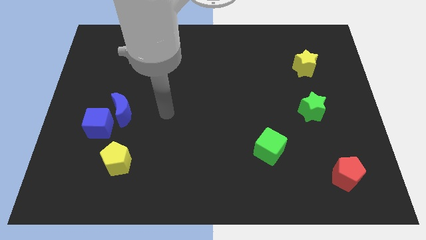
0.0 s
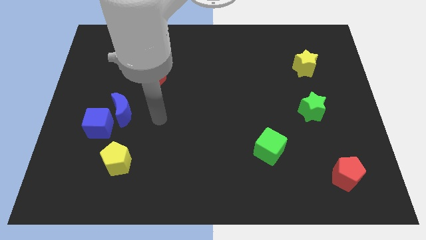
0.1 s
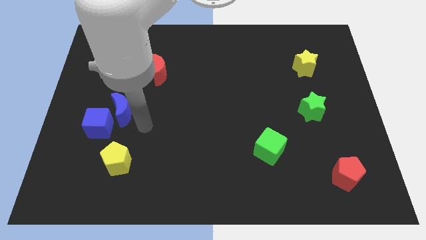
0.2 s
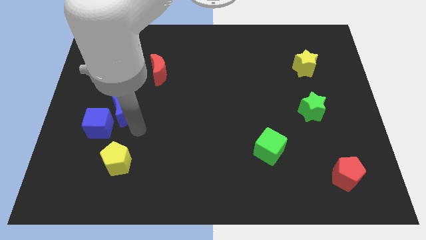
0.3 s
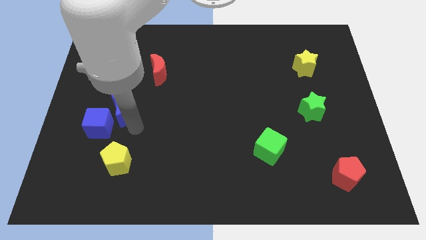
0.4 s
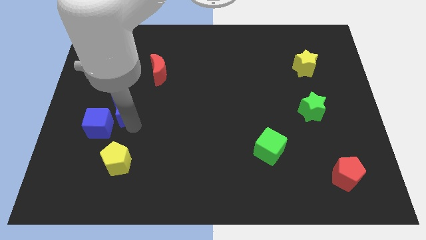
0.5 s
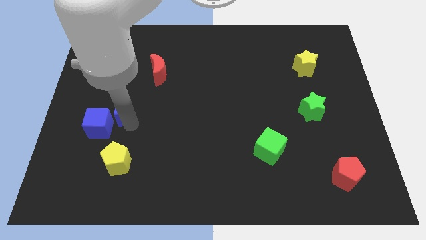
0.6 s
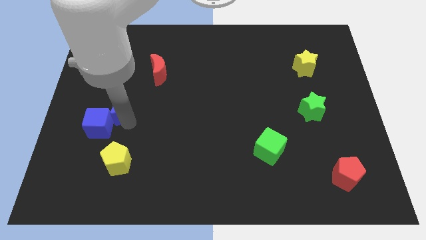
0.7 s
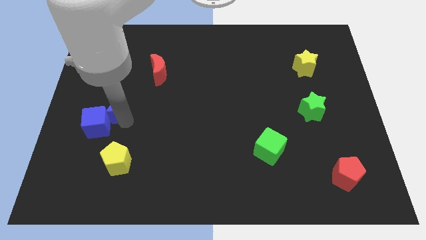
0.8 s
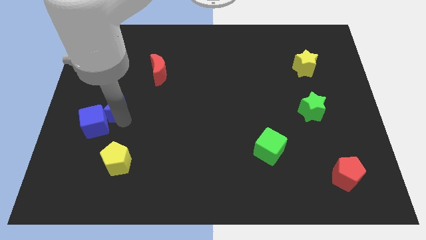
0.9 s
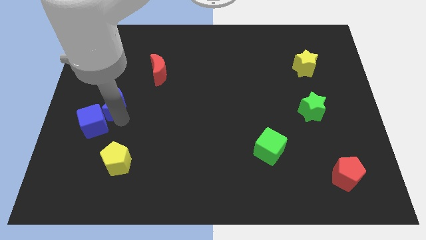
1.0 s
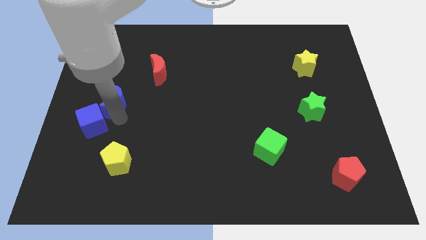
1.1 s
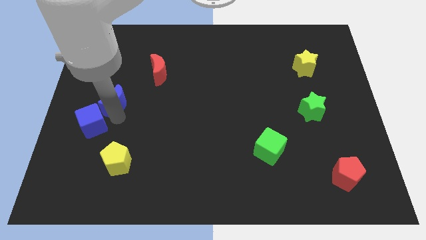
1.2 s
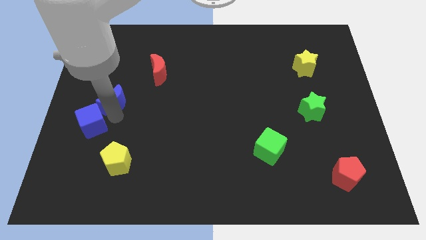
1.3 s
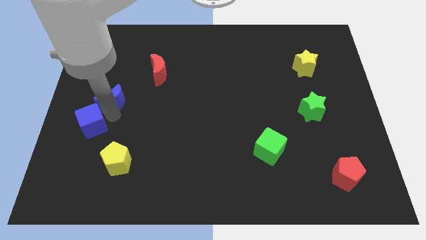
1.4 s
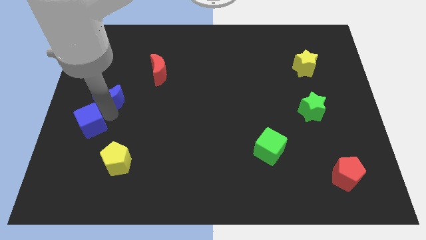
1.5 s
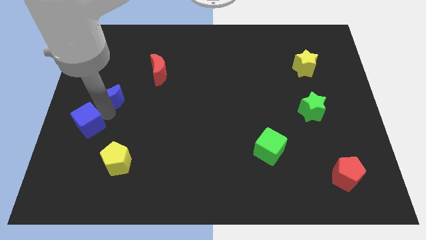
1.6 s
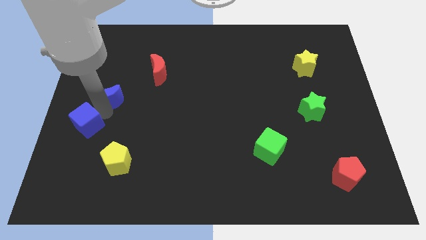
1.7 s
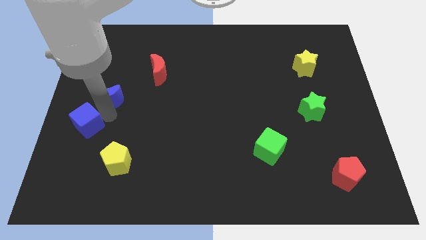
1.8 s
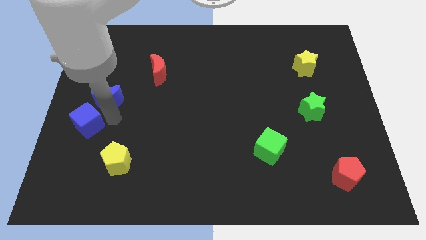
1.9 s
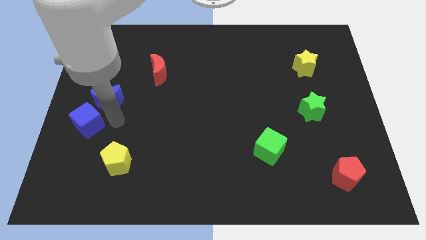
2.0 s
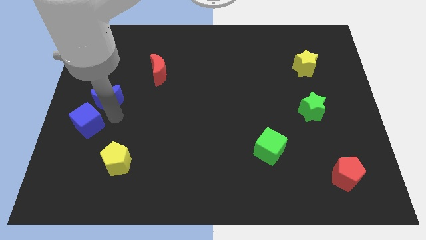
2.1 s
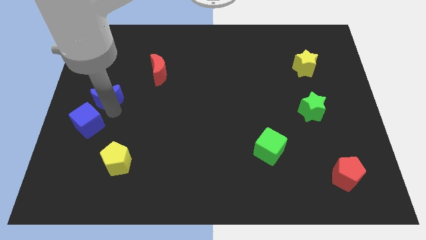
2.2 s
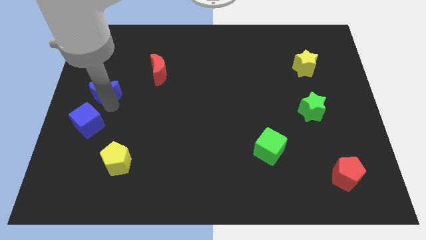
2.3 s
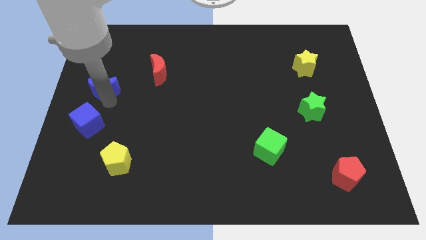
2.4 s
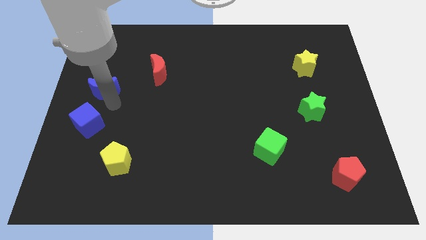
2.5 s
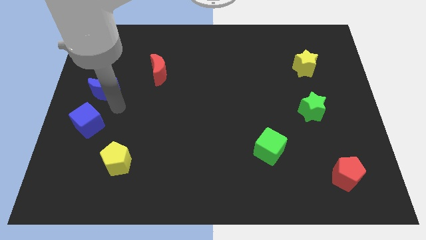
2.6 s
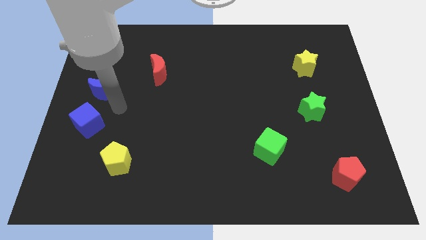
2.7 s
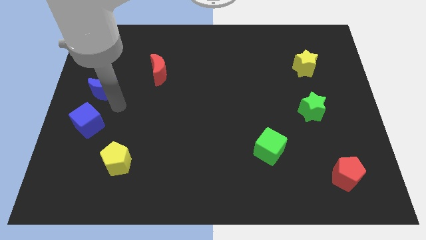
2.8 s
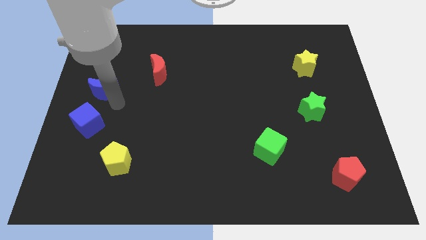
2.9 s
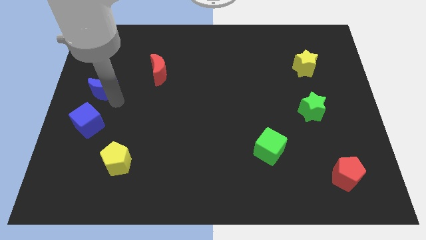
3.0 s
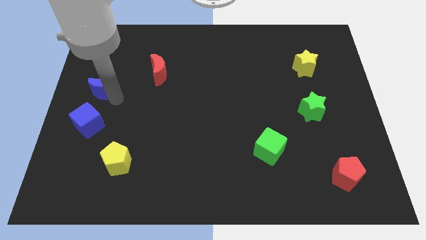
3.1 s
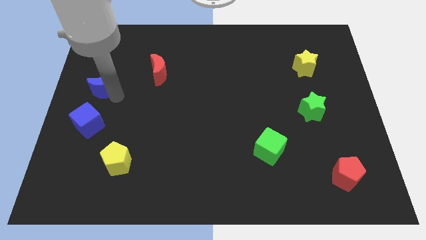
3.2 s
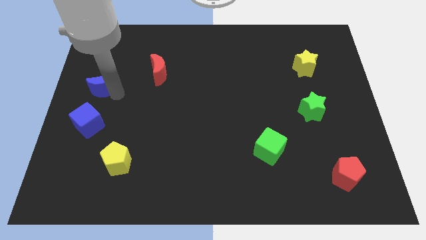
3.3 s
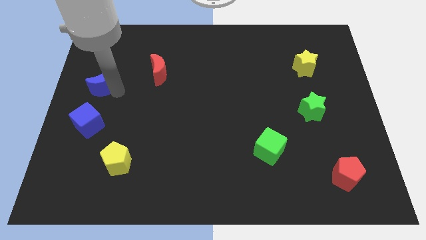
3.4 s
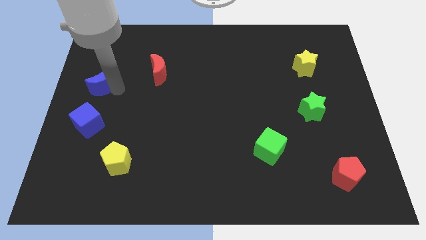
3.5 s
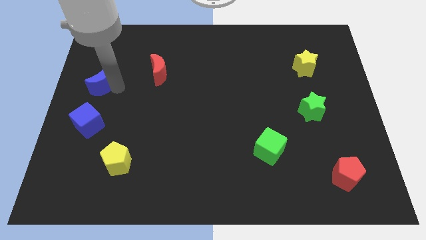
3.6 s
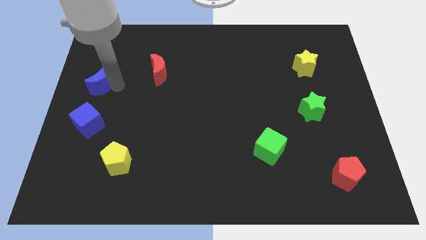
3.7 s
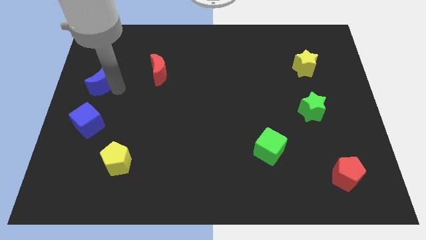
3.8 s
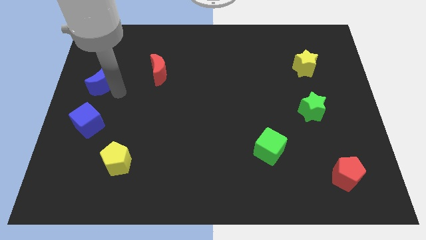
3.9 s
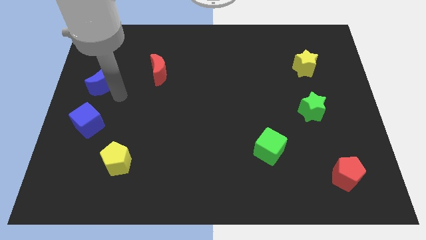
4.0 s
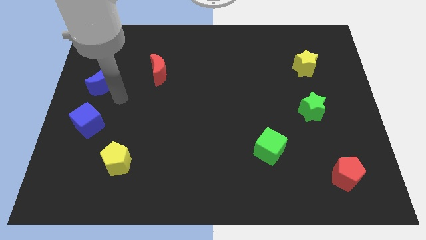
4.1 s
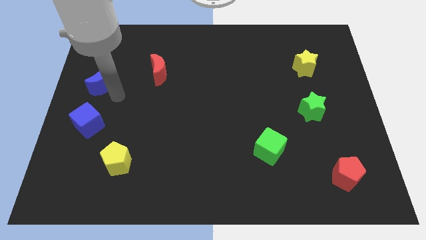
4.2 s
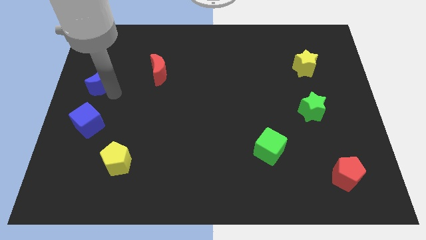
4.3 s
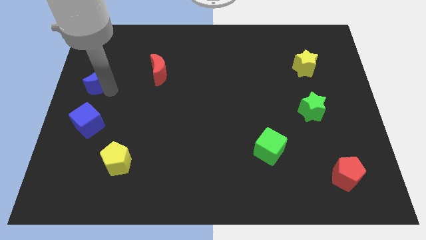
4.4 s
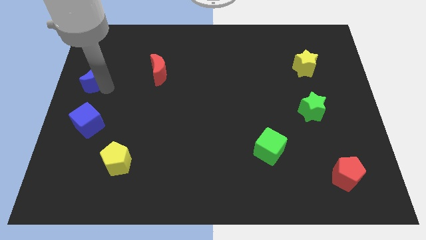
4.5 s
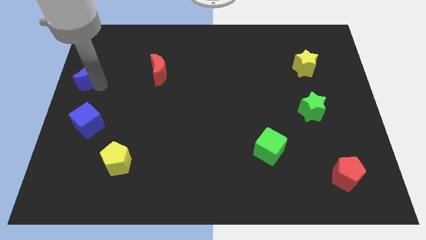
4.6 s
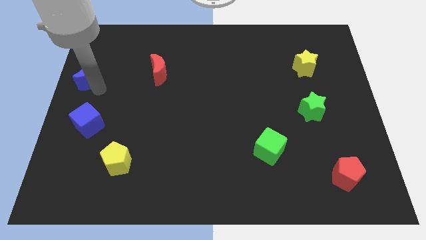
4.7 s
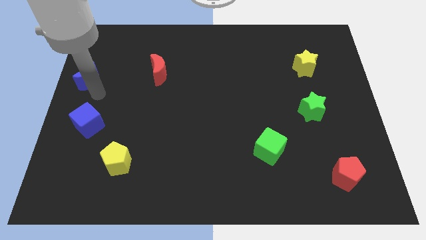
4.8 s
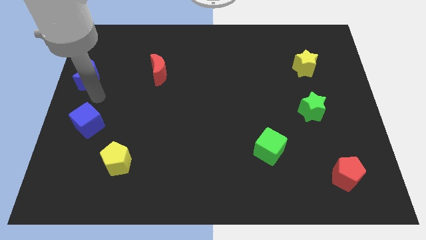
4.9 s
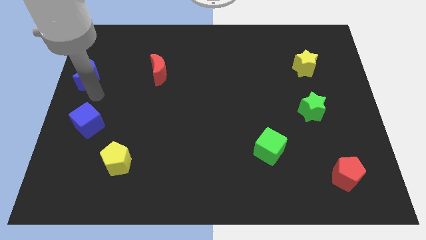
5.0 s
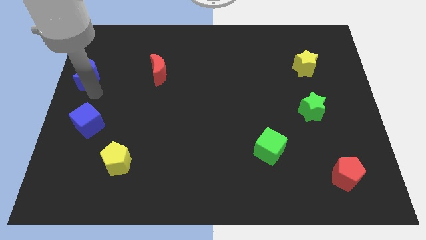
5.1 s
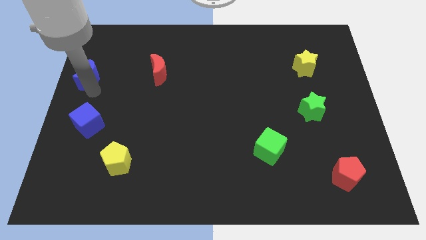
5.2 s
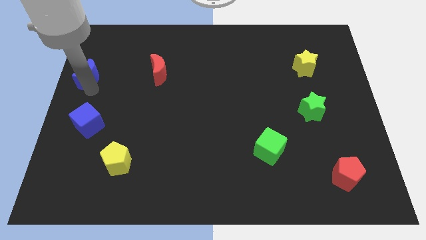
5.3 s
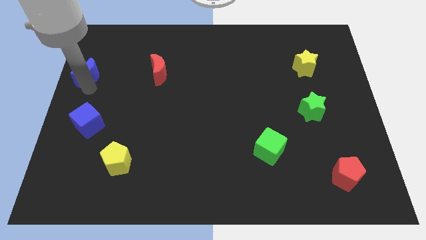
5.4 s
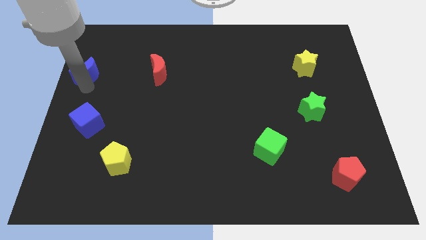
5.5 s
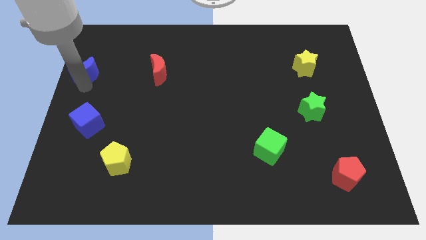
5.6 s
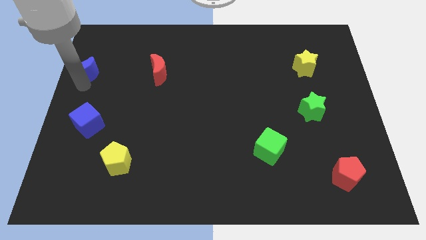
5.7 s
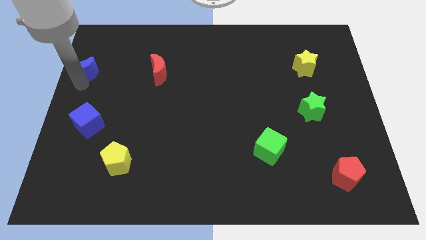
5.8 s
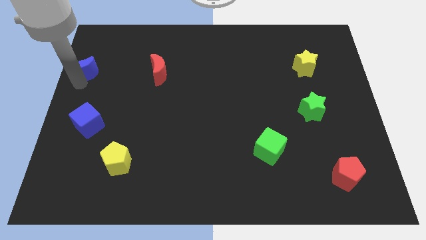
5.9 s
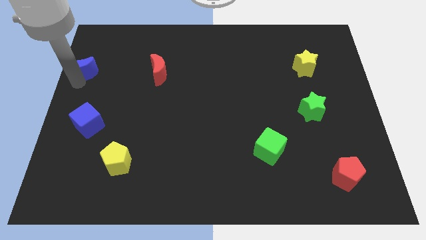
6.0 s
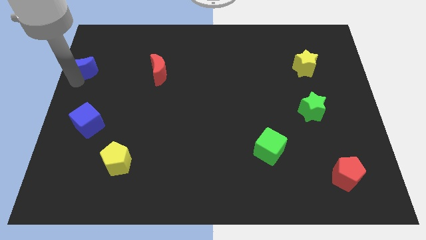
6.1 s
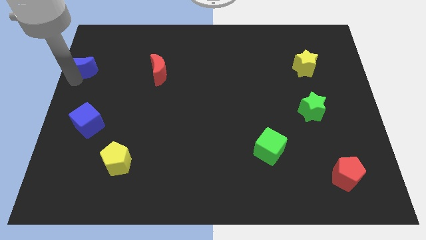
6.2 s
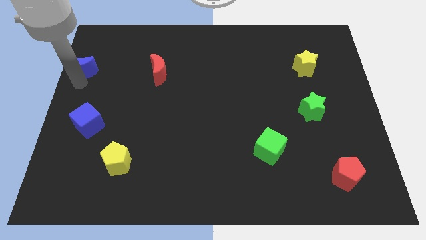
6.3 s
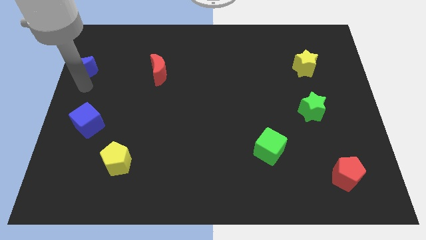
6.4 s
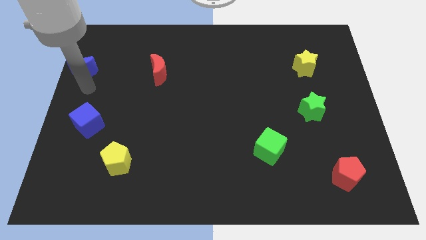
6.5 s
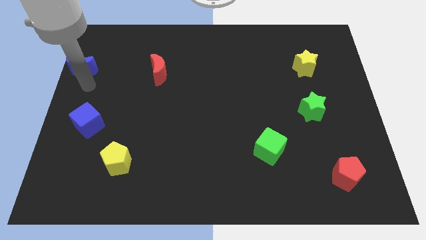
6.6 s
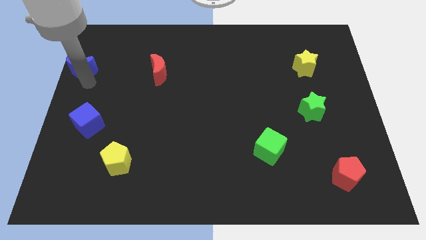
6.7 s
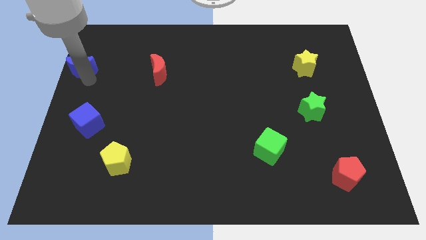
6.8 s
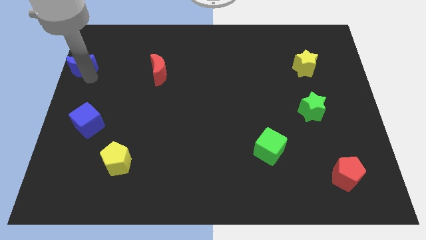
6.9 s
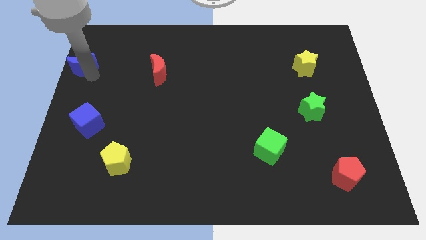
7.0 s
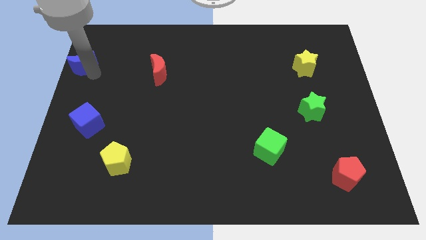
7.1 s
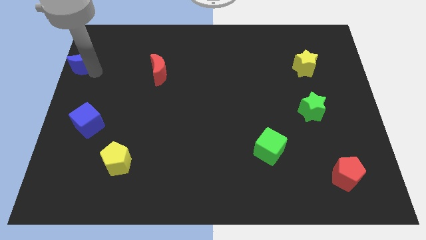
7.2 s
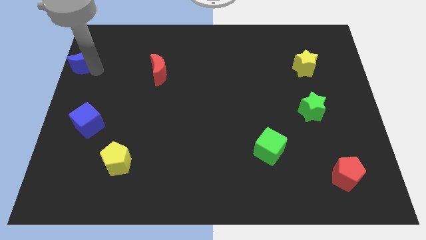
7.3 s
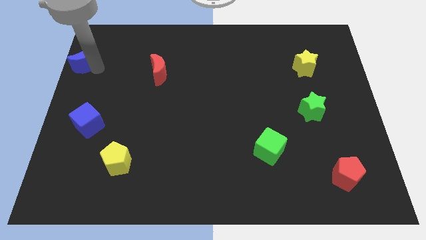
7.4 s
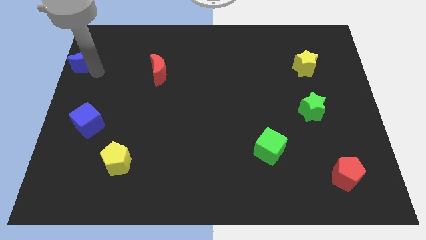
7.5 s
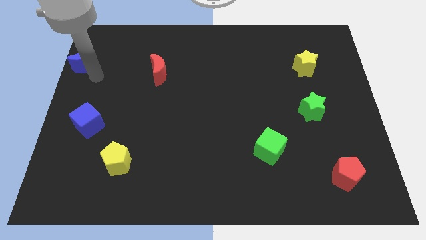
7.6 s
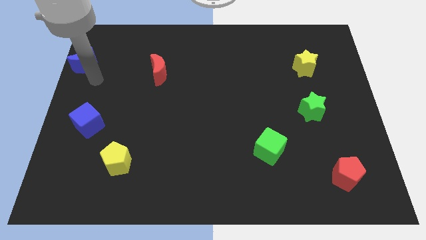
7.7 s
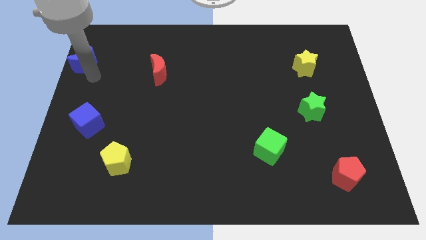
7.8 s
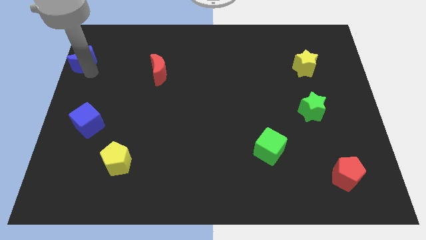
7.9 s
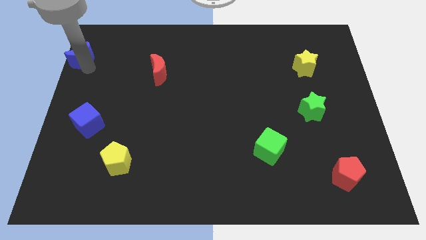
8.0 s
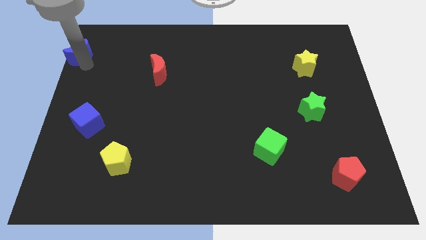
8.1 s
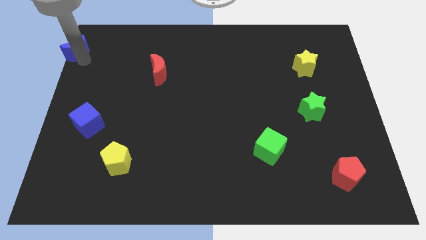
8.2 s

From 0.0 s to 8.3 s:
push the blue moon to the upper left corner
